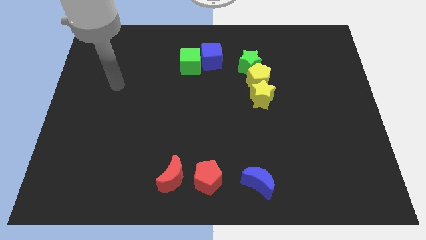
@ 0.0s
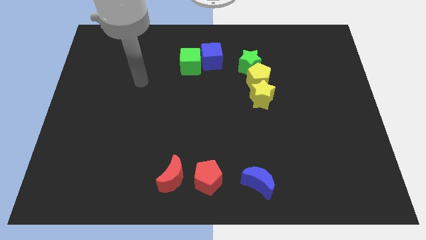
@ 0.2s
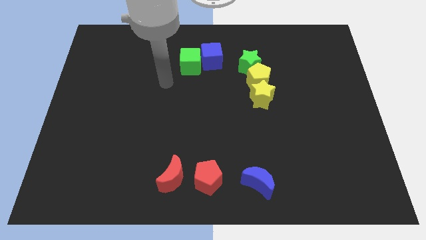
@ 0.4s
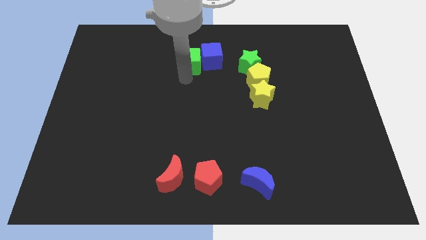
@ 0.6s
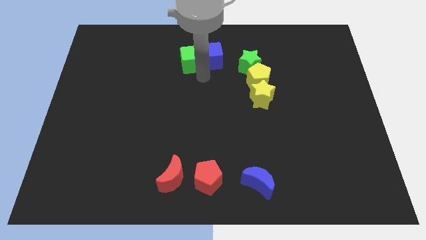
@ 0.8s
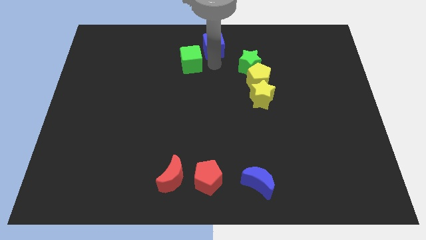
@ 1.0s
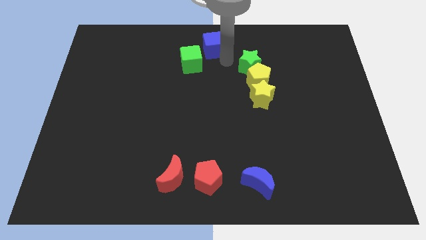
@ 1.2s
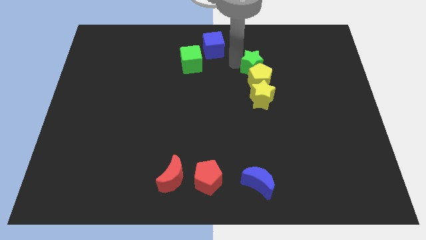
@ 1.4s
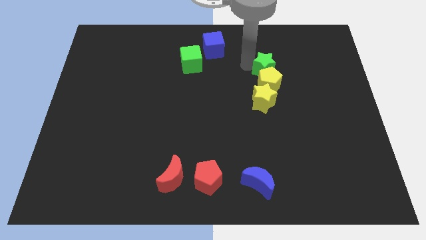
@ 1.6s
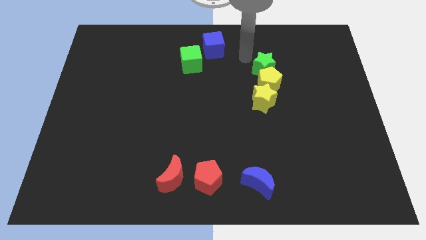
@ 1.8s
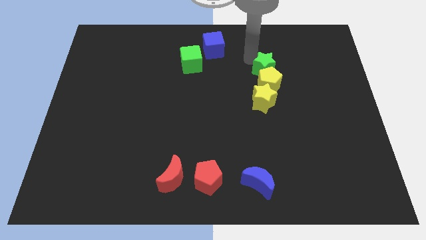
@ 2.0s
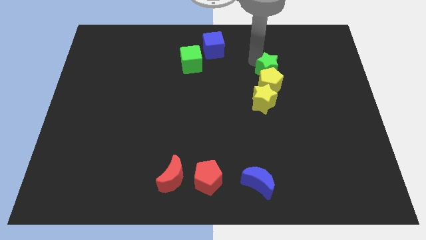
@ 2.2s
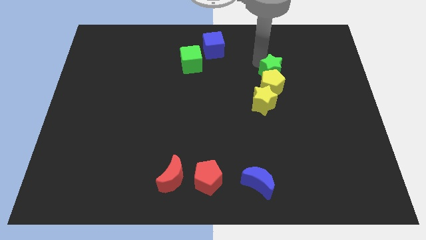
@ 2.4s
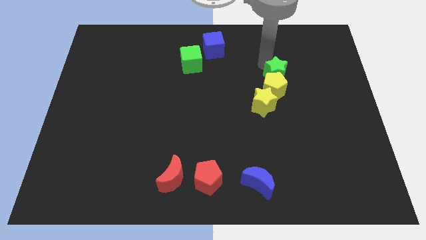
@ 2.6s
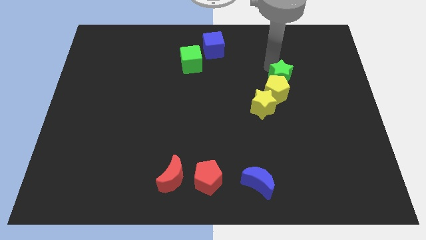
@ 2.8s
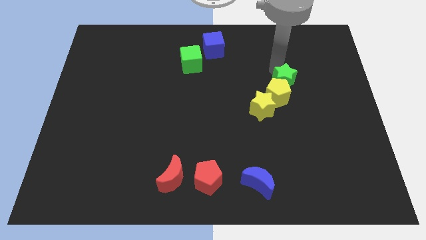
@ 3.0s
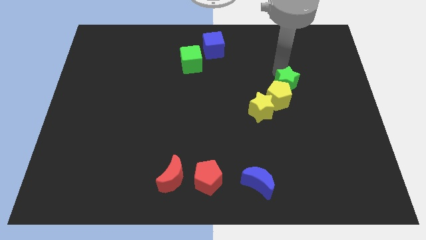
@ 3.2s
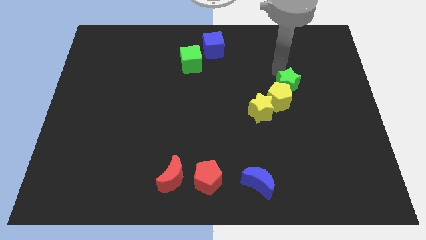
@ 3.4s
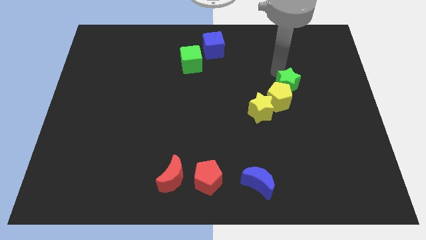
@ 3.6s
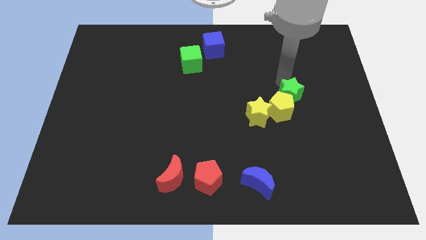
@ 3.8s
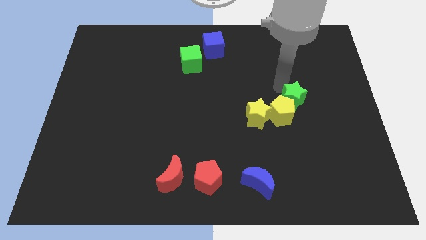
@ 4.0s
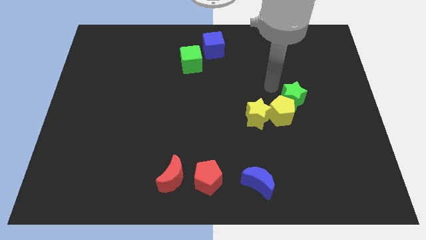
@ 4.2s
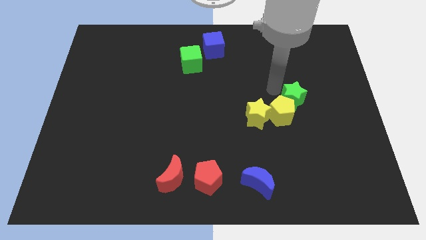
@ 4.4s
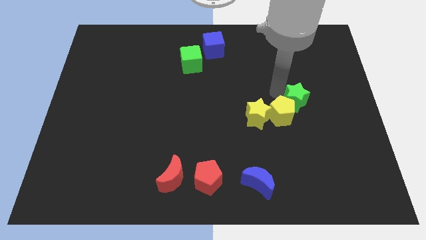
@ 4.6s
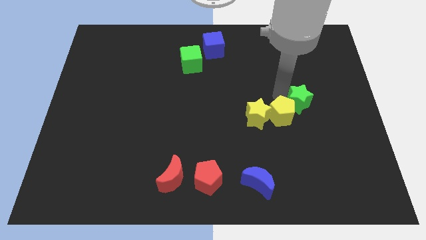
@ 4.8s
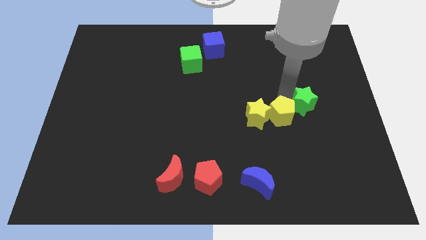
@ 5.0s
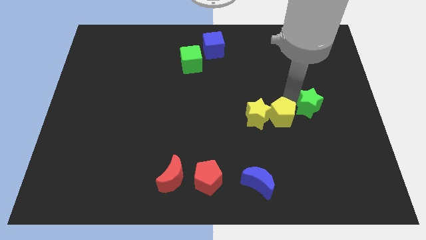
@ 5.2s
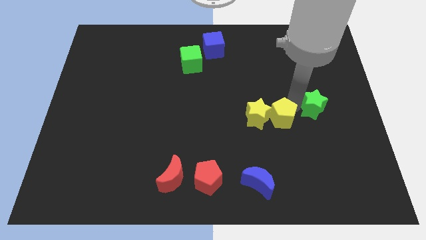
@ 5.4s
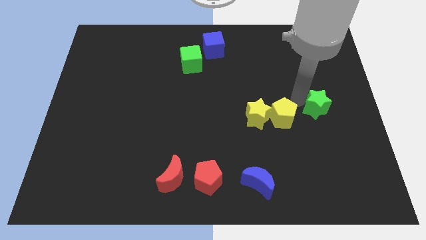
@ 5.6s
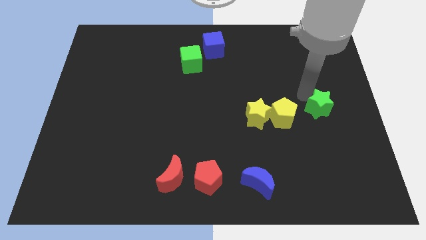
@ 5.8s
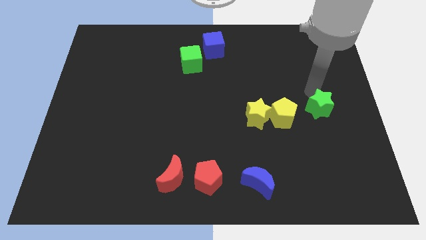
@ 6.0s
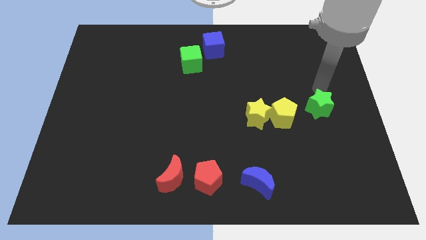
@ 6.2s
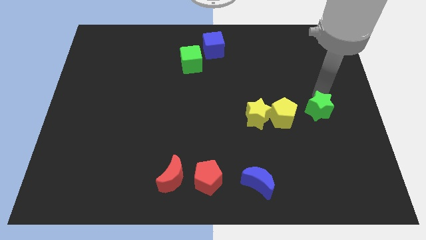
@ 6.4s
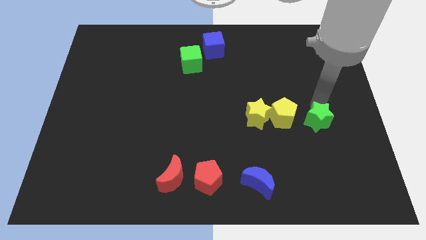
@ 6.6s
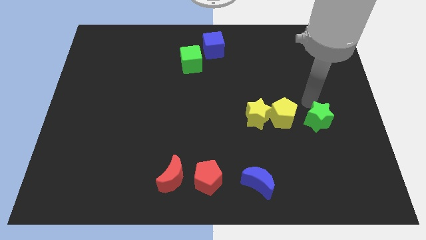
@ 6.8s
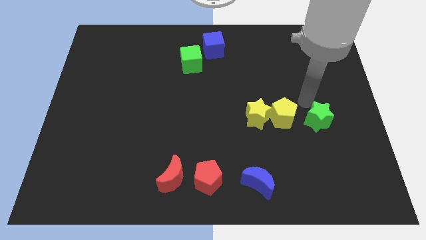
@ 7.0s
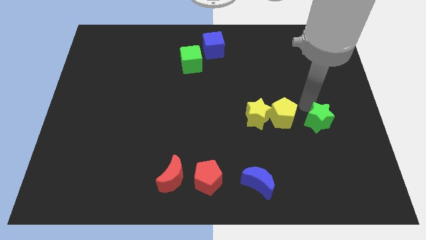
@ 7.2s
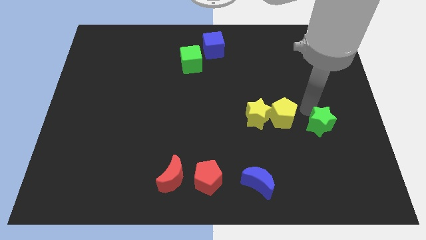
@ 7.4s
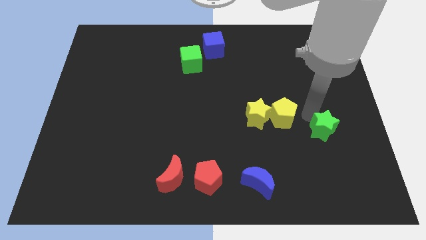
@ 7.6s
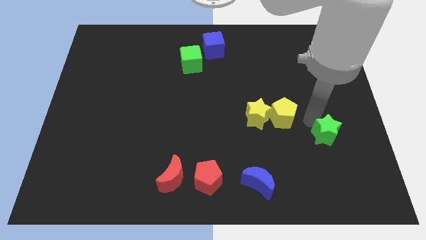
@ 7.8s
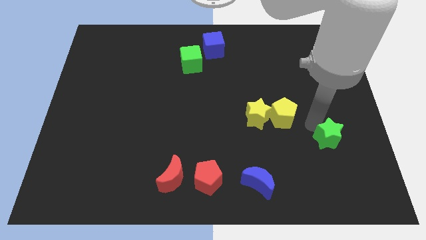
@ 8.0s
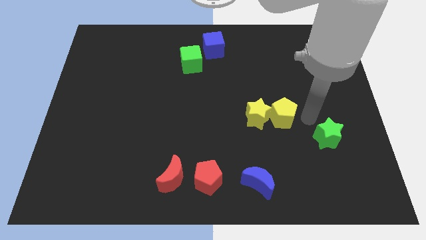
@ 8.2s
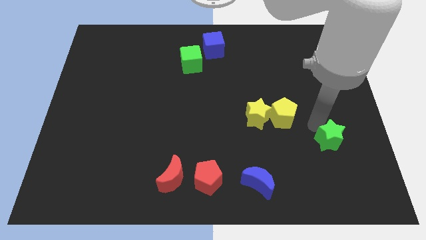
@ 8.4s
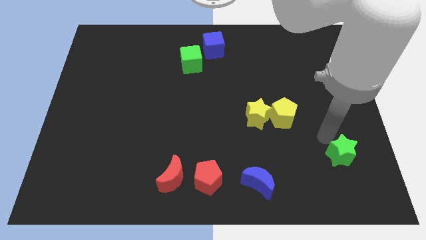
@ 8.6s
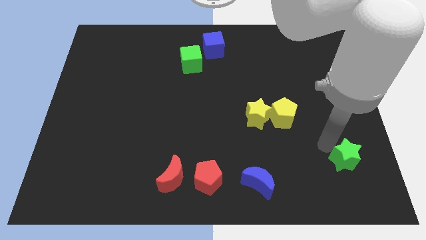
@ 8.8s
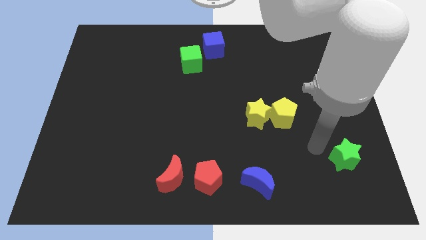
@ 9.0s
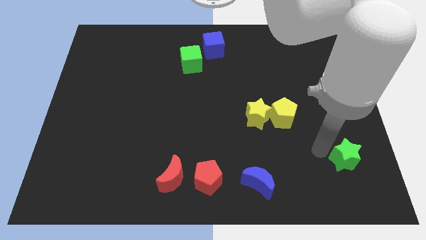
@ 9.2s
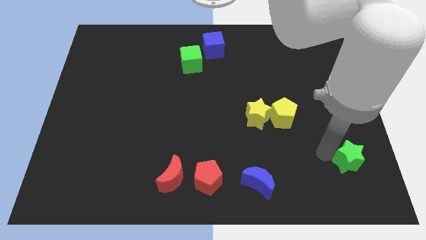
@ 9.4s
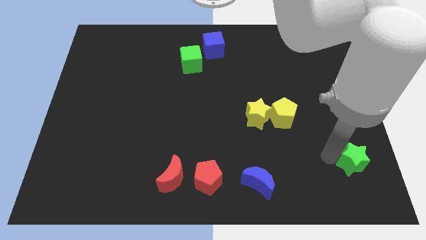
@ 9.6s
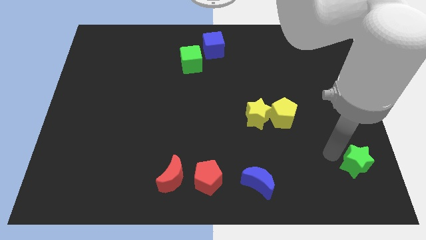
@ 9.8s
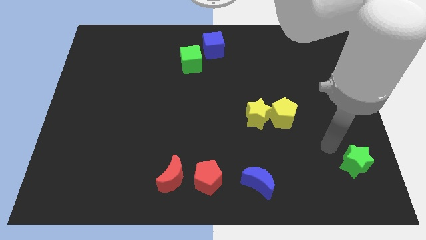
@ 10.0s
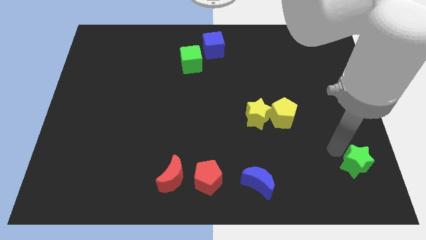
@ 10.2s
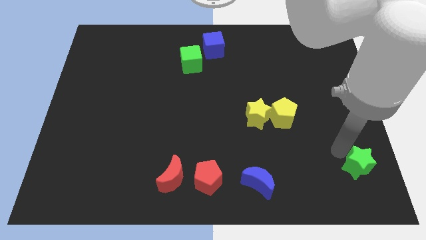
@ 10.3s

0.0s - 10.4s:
push the green star to the lower right corner
